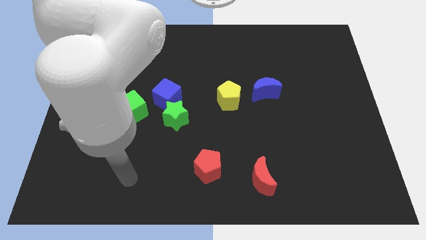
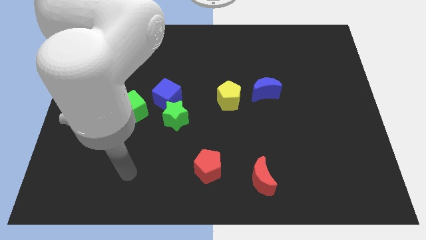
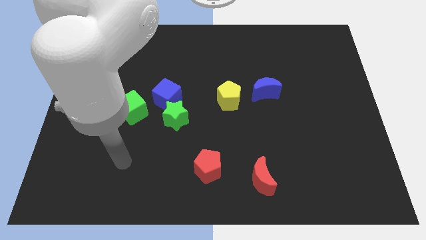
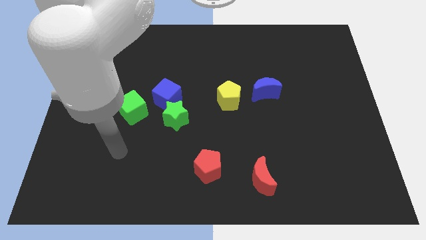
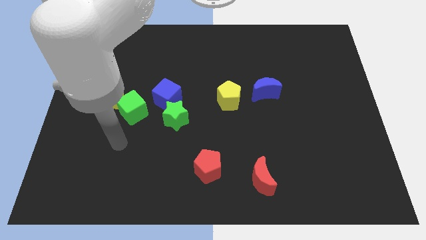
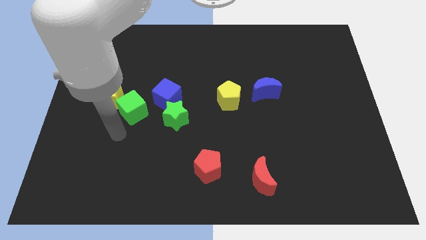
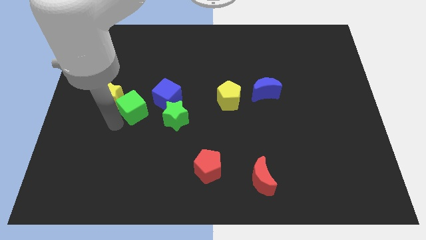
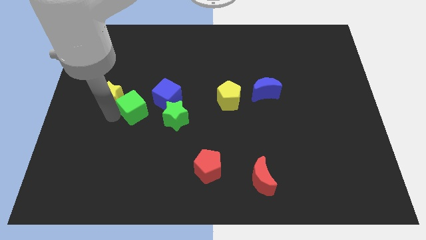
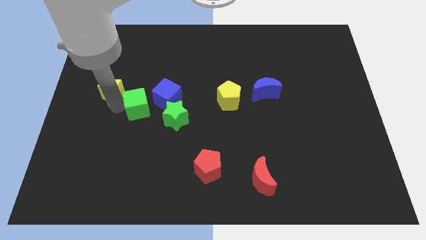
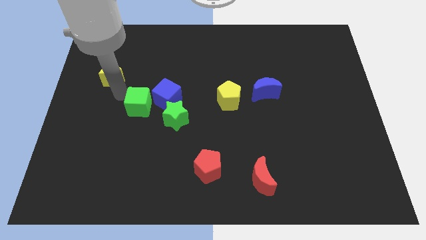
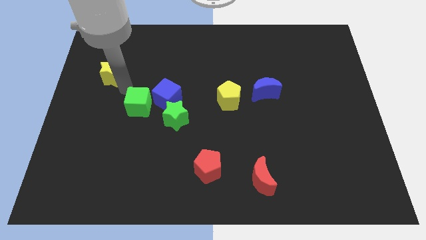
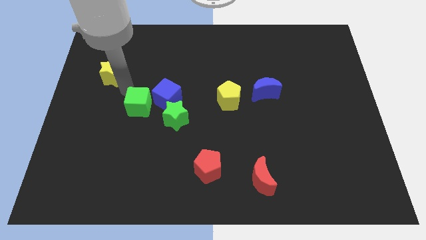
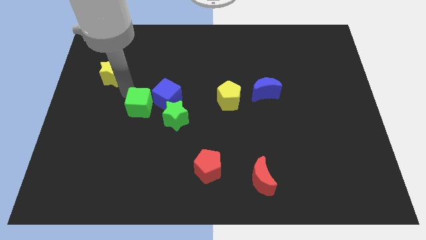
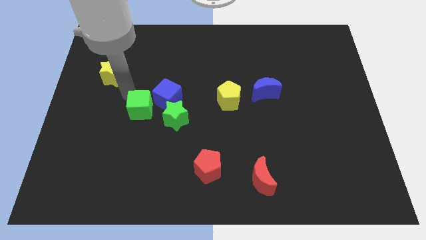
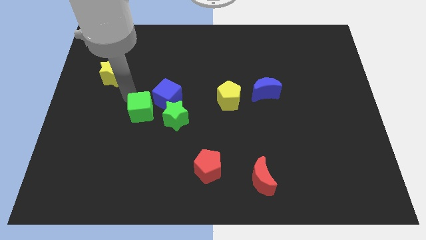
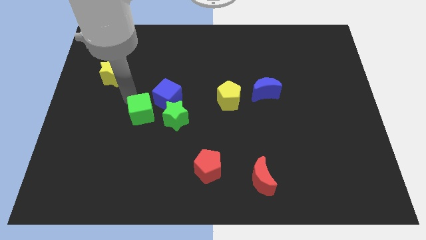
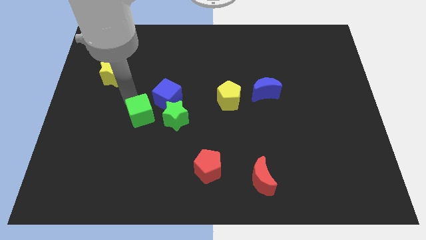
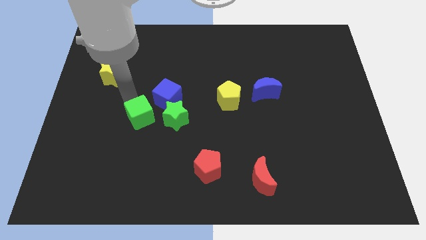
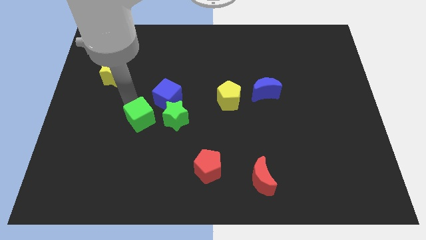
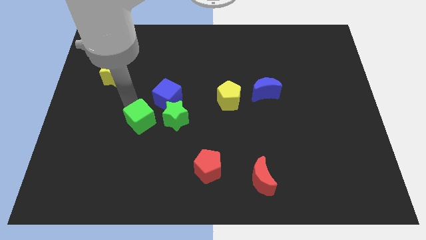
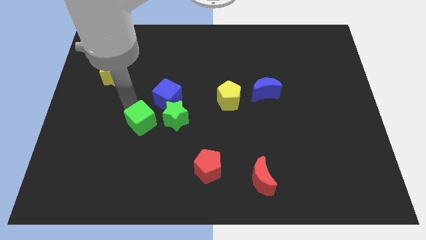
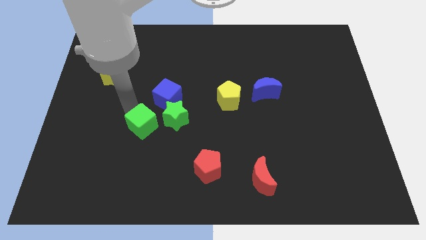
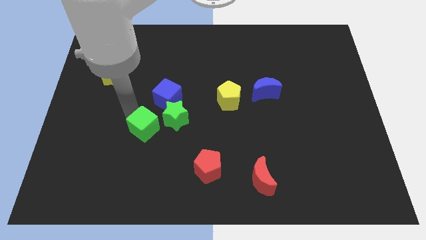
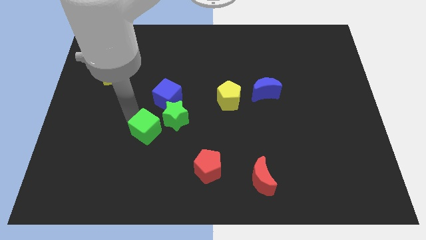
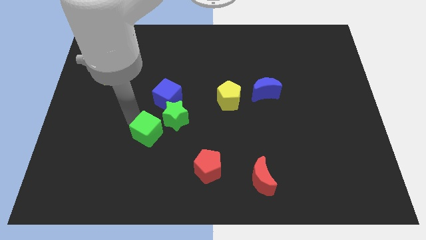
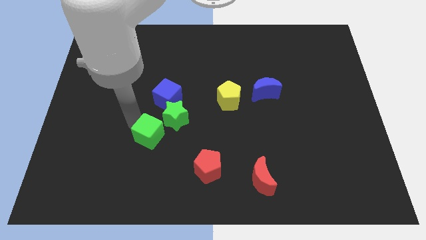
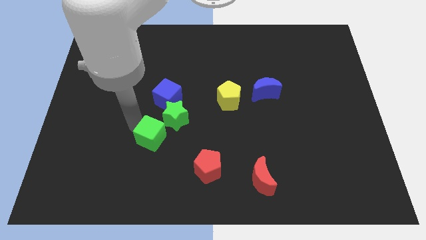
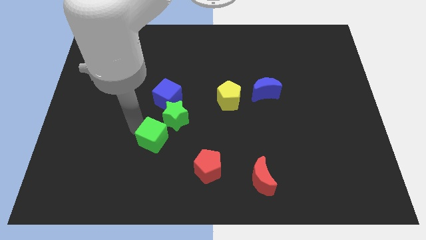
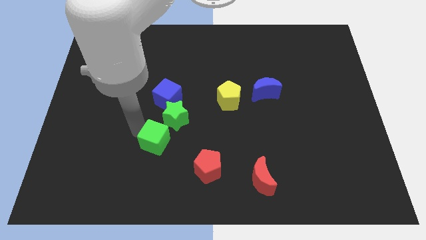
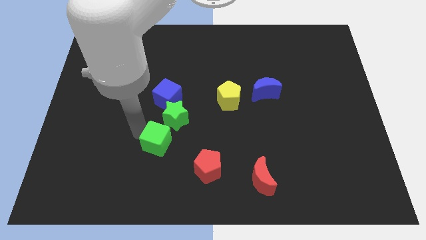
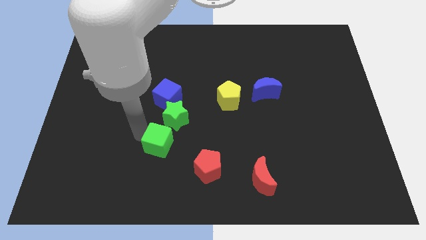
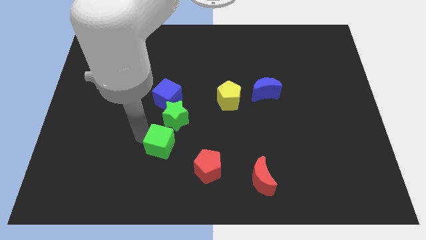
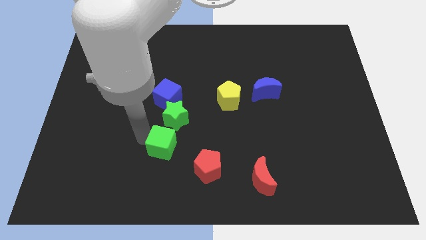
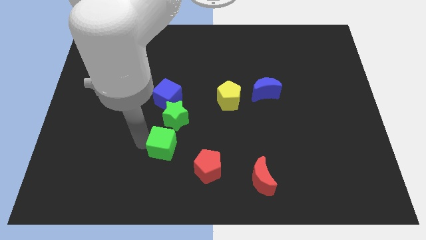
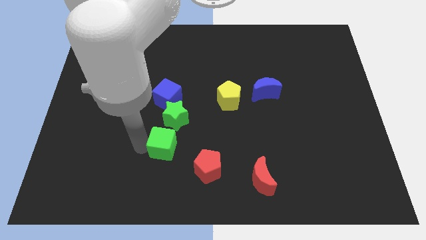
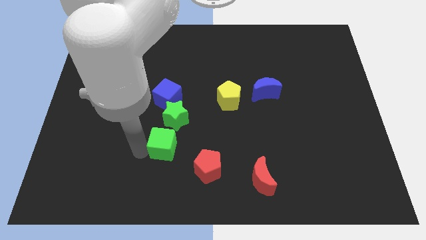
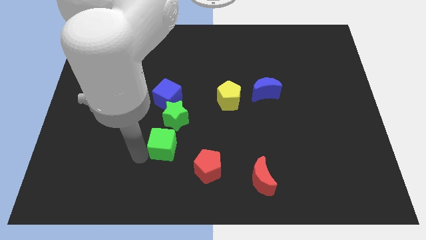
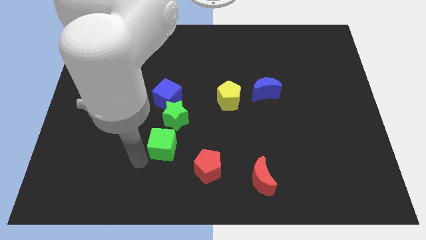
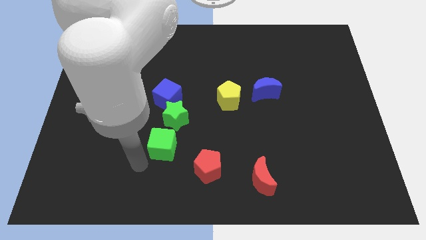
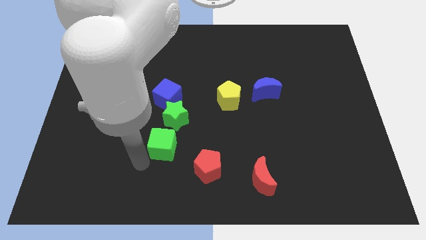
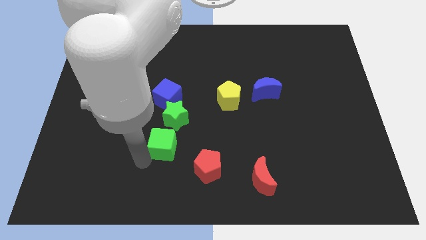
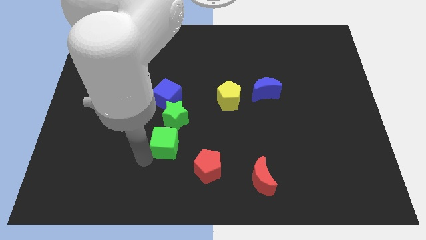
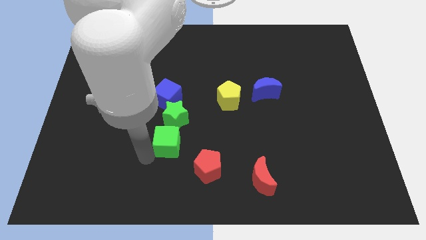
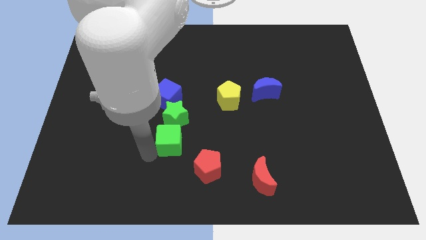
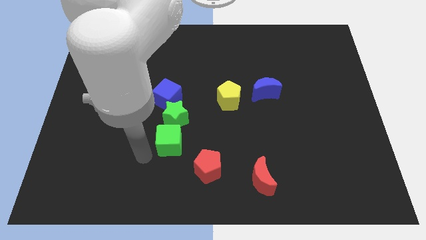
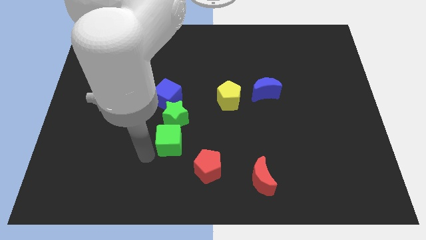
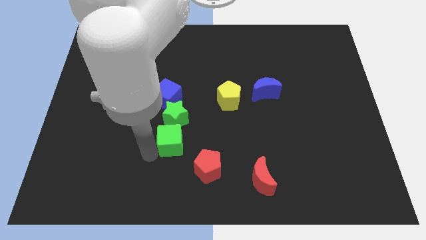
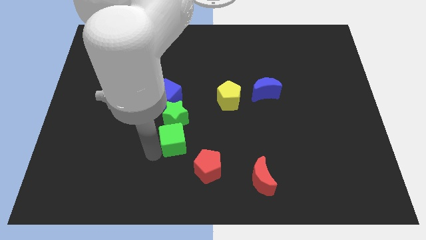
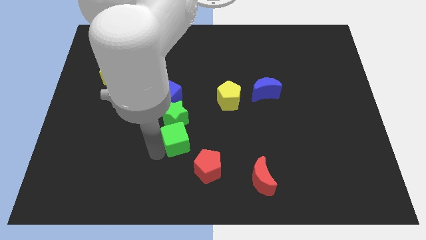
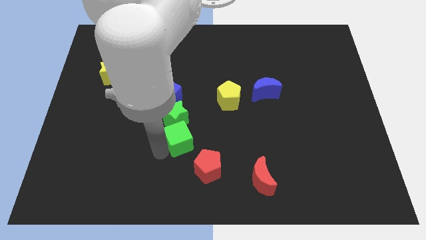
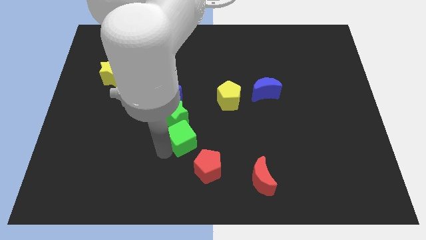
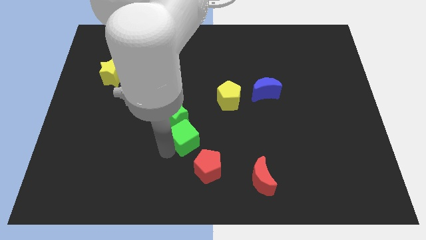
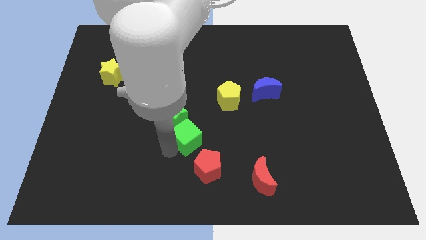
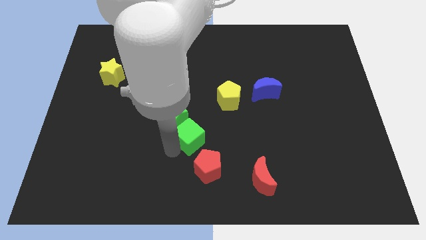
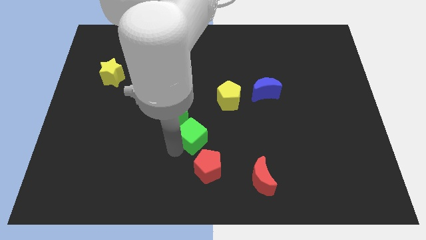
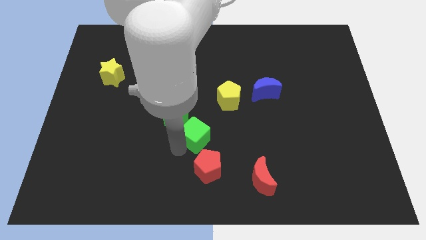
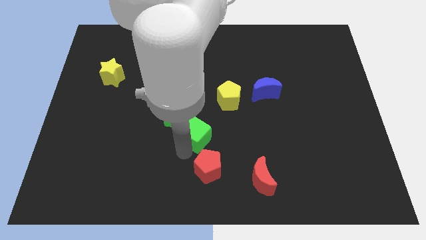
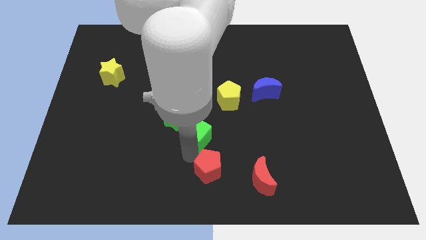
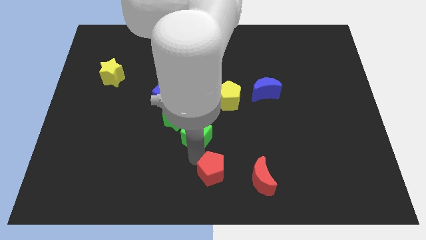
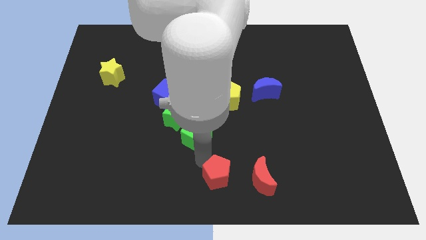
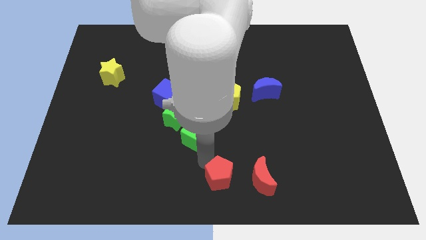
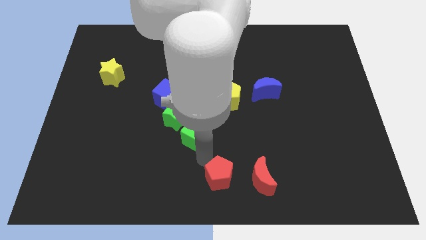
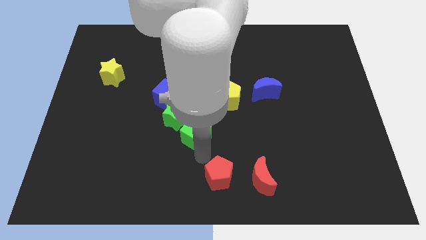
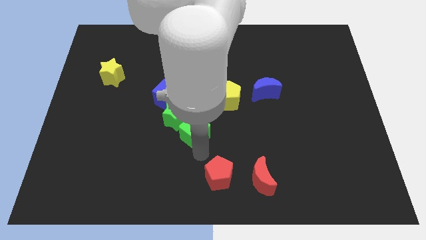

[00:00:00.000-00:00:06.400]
put the green cube to the bottom right of the blue cube

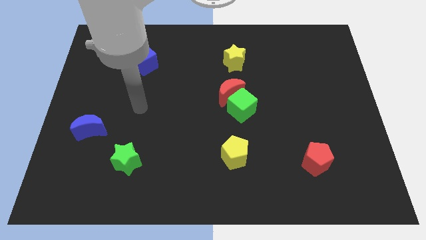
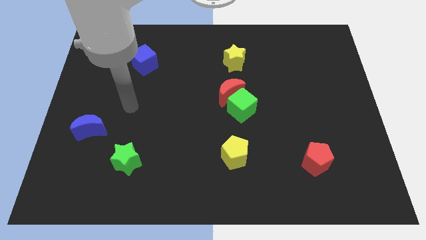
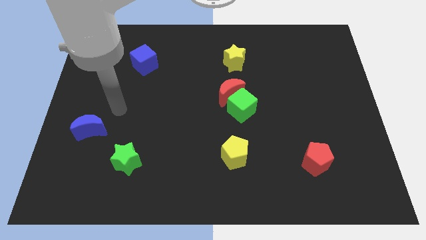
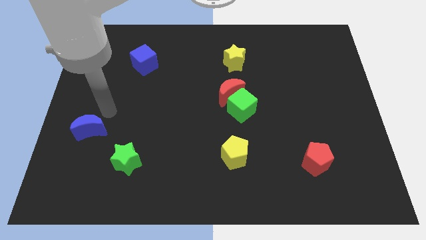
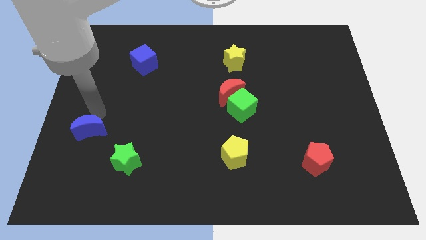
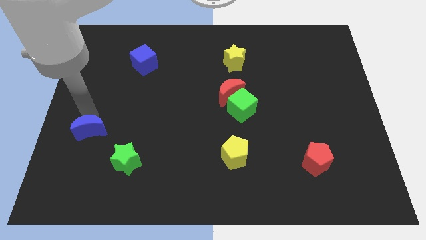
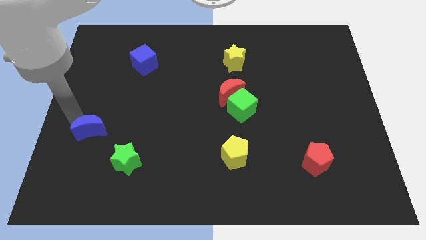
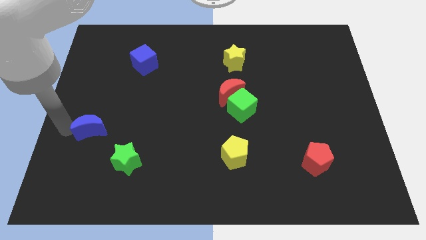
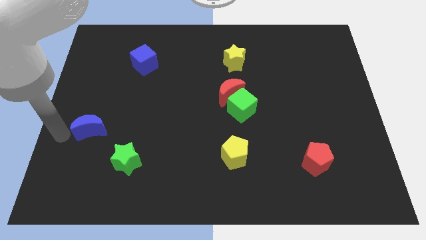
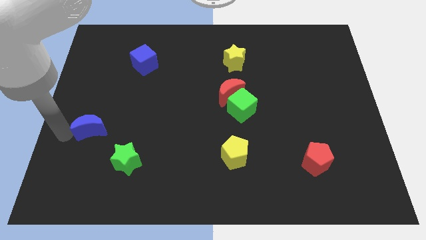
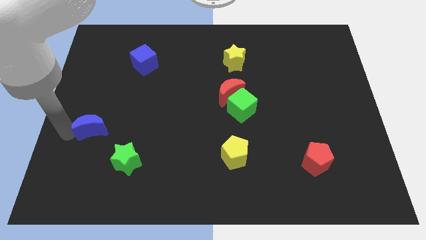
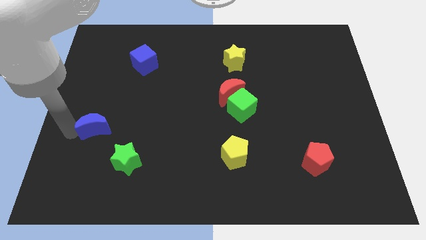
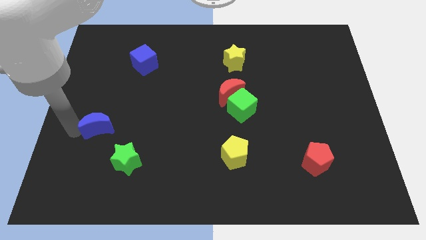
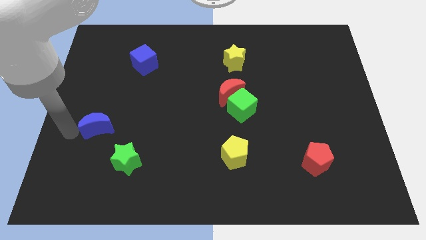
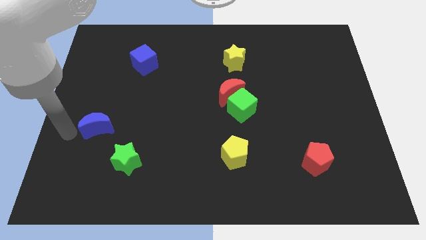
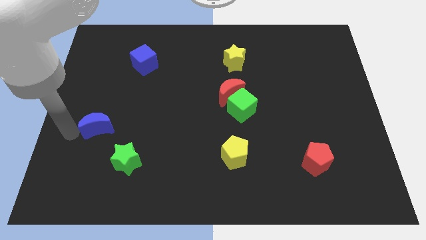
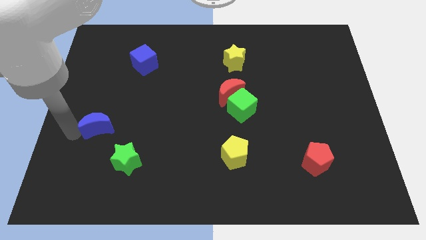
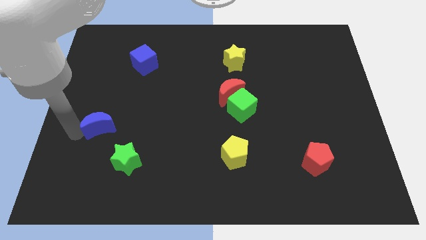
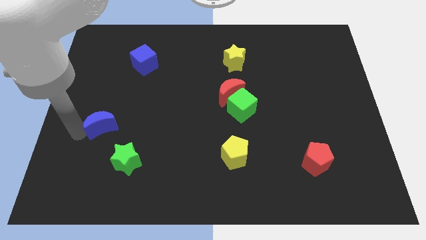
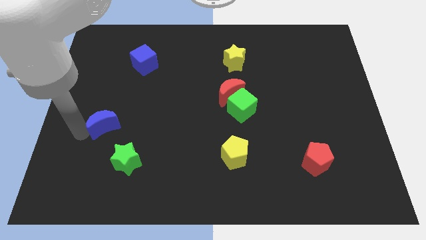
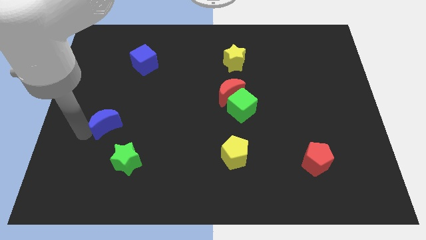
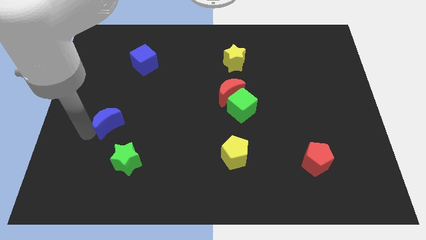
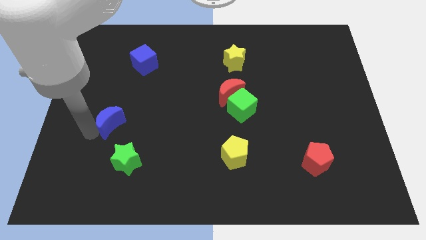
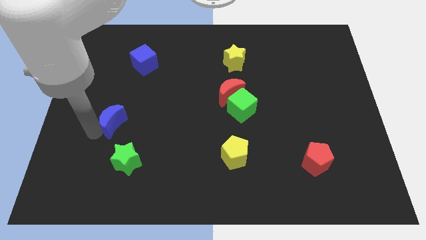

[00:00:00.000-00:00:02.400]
push the blue moon to the top side of the green star
